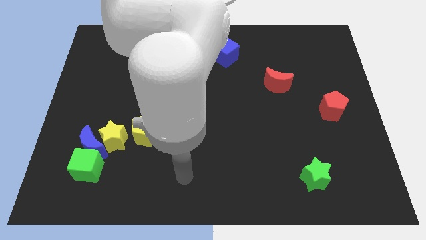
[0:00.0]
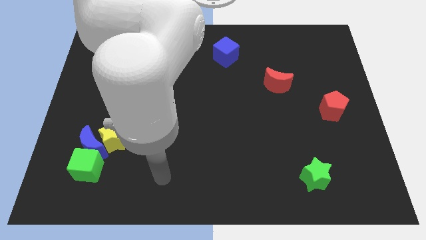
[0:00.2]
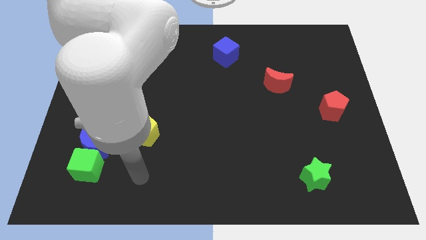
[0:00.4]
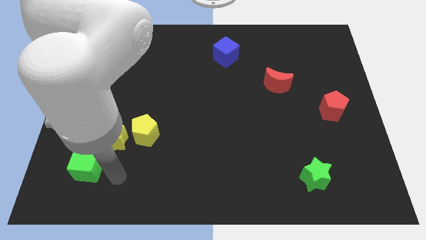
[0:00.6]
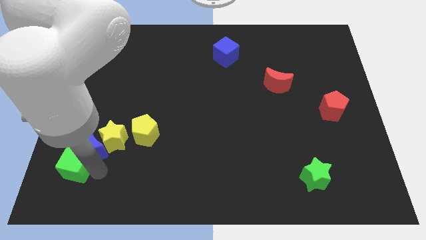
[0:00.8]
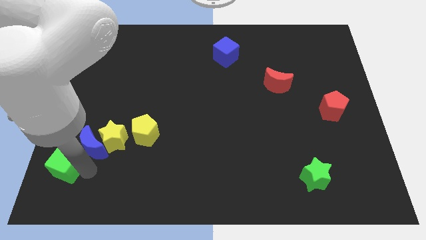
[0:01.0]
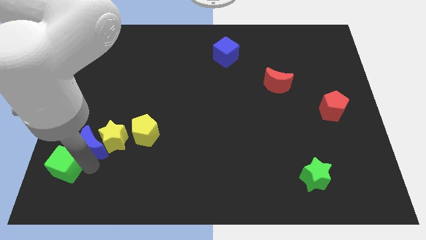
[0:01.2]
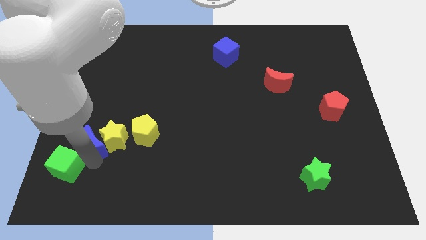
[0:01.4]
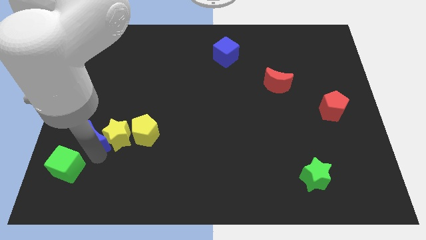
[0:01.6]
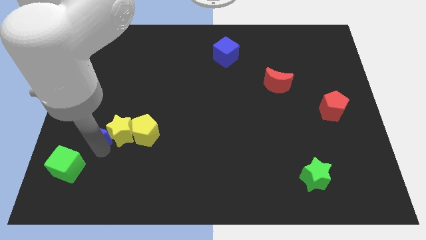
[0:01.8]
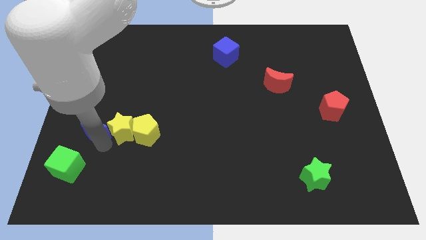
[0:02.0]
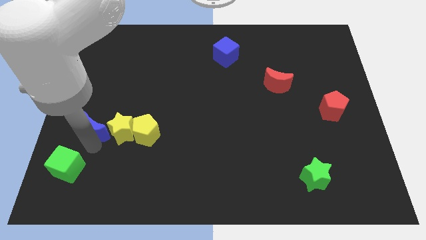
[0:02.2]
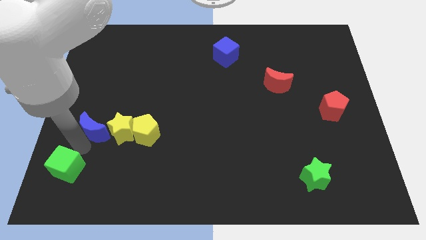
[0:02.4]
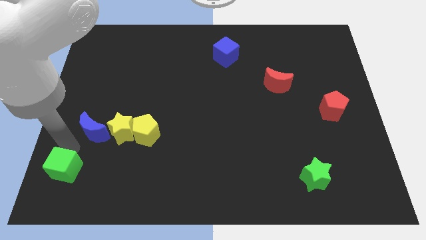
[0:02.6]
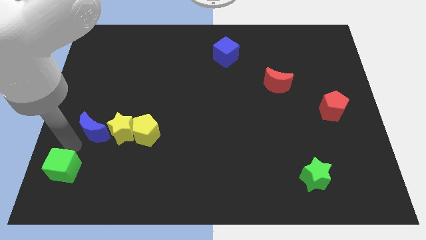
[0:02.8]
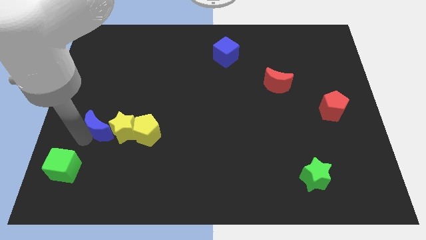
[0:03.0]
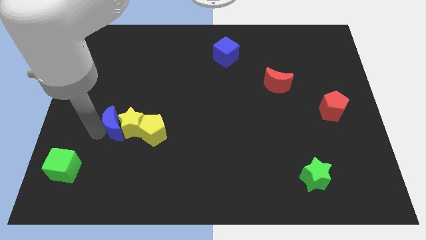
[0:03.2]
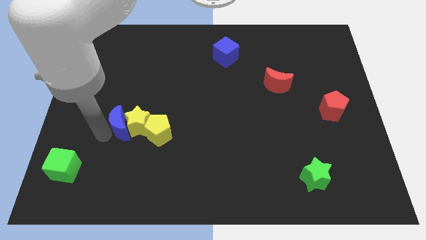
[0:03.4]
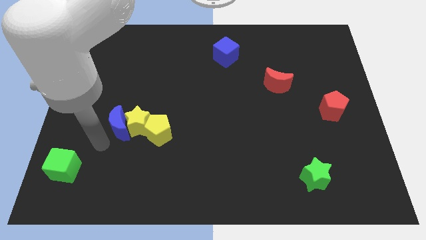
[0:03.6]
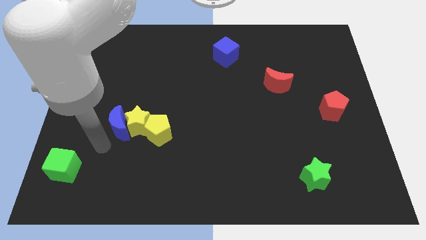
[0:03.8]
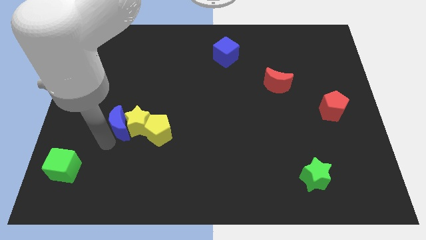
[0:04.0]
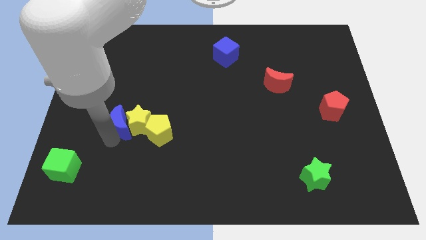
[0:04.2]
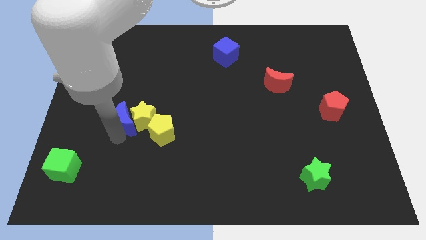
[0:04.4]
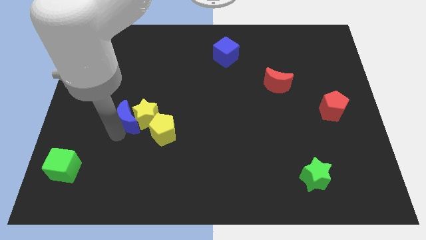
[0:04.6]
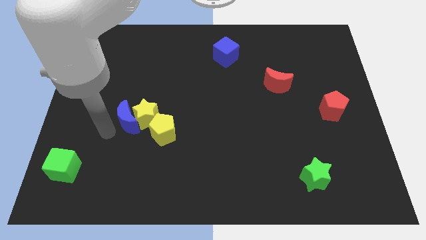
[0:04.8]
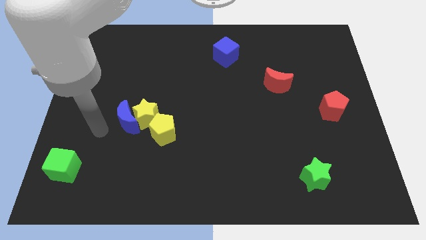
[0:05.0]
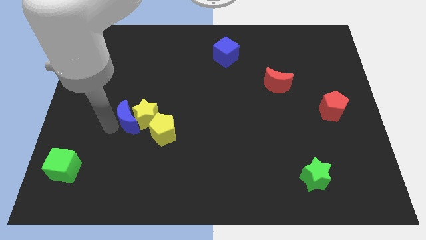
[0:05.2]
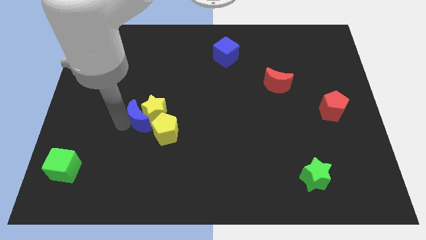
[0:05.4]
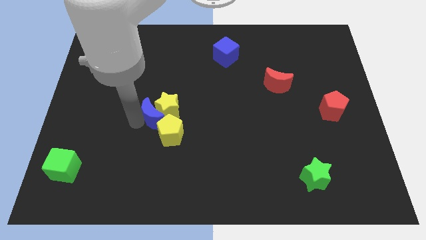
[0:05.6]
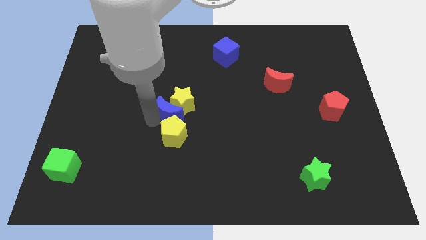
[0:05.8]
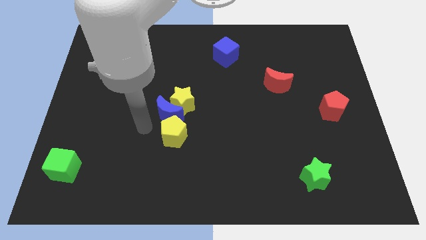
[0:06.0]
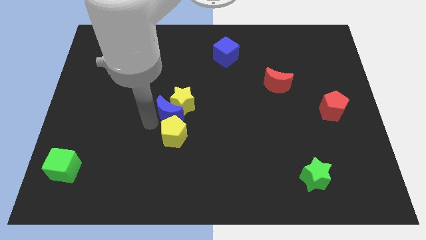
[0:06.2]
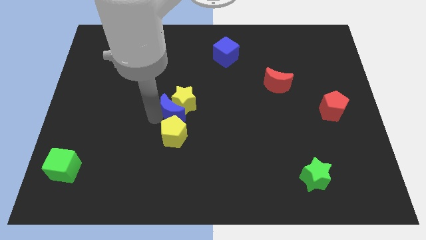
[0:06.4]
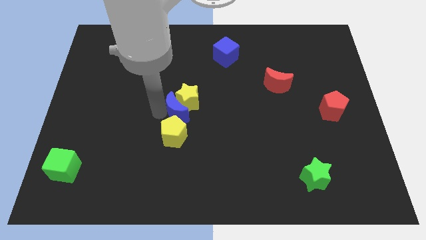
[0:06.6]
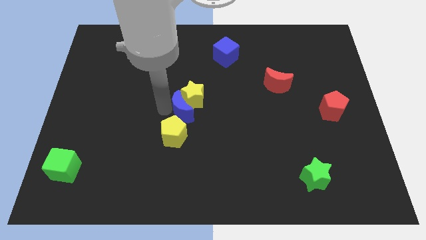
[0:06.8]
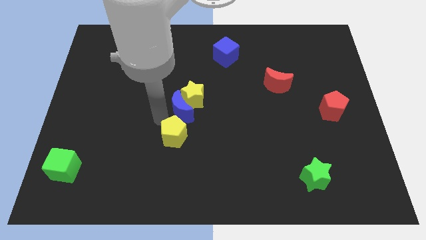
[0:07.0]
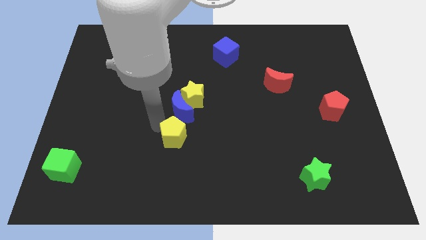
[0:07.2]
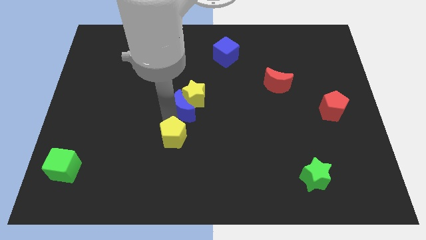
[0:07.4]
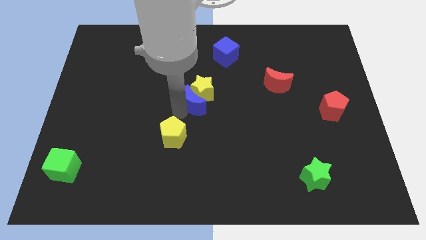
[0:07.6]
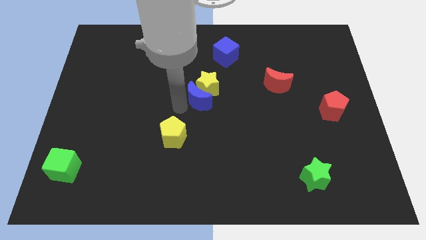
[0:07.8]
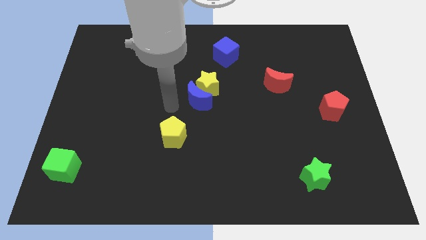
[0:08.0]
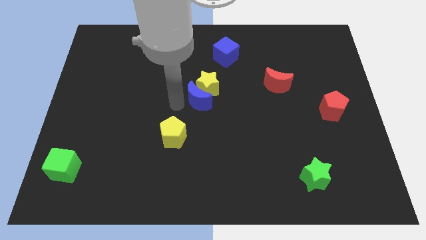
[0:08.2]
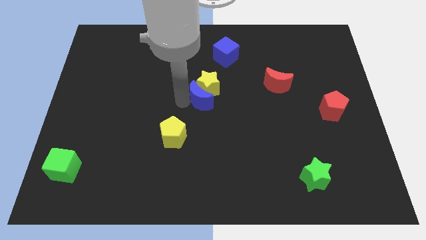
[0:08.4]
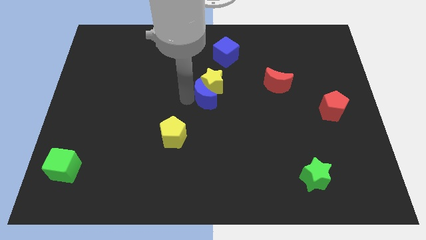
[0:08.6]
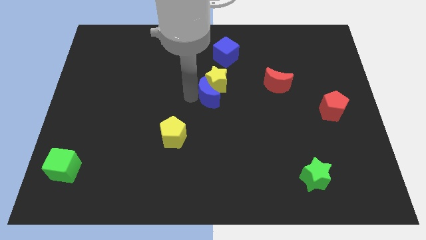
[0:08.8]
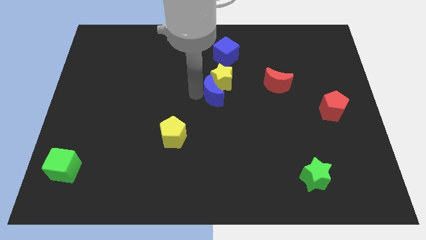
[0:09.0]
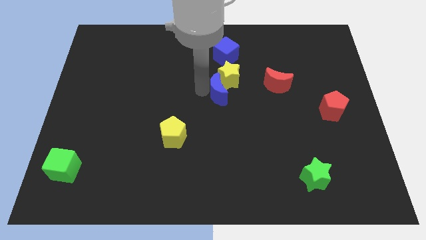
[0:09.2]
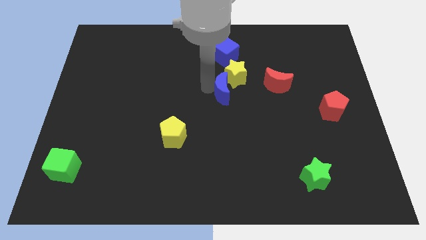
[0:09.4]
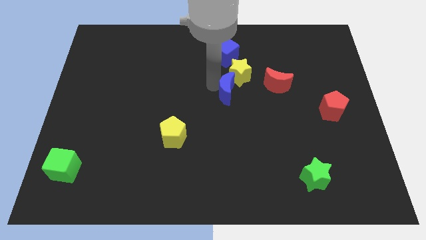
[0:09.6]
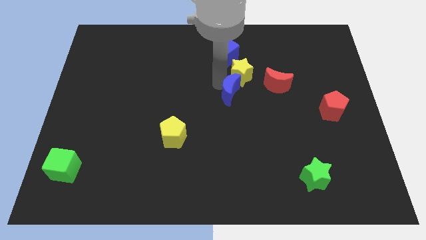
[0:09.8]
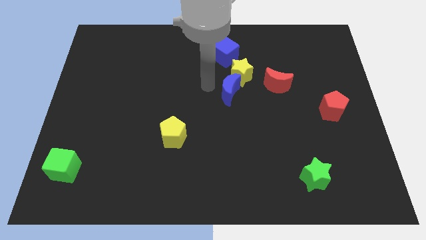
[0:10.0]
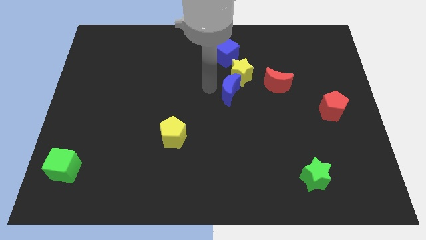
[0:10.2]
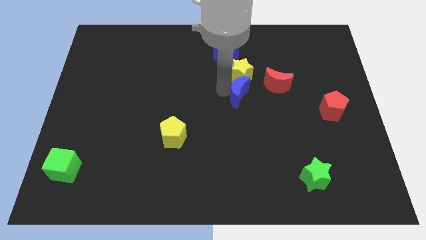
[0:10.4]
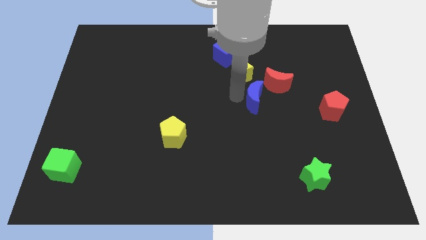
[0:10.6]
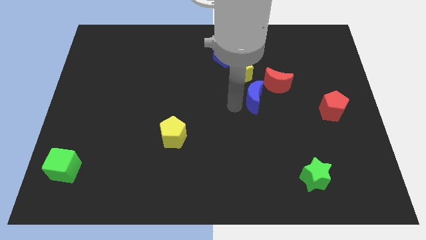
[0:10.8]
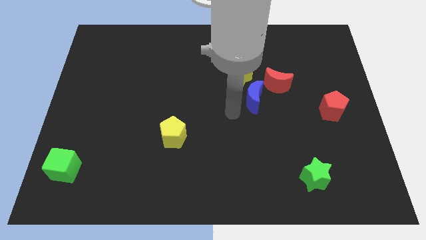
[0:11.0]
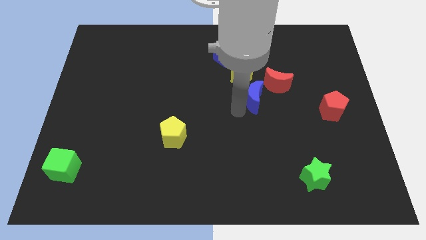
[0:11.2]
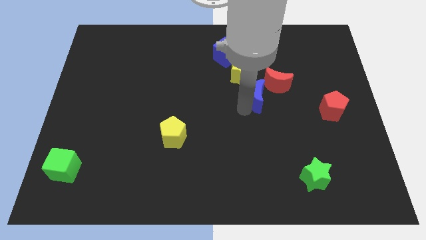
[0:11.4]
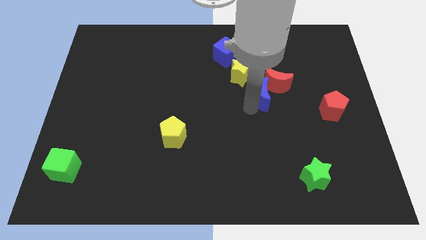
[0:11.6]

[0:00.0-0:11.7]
move the blue moon close to the red moon

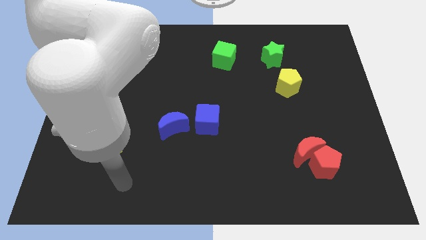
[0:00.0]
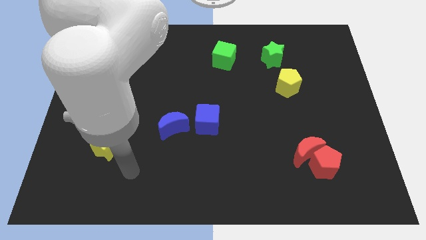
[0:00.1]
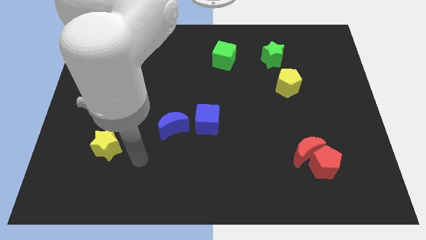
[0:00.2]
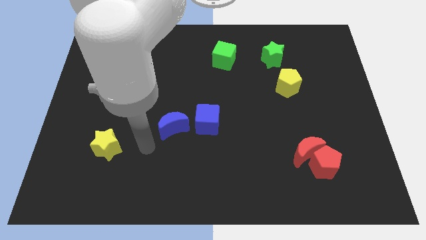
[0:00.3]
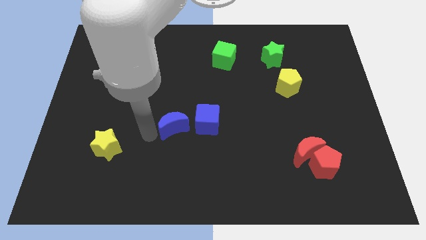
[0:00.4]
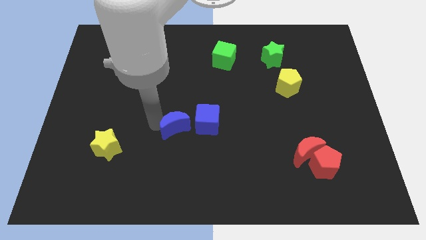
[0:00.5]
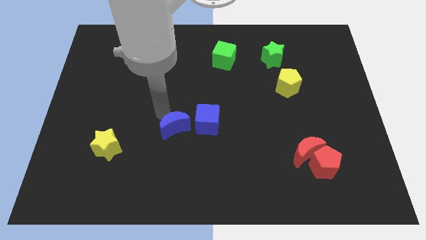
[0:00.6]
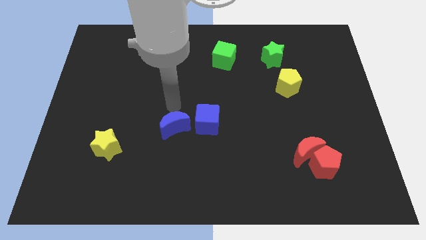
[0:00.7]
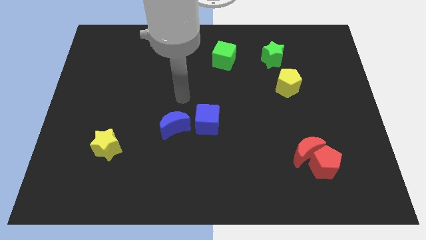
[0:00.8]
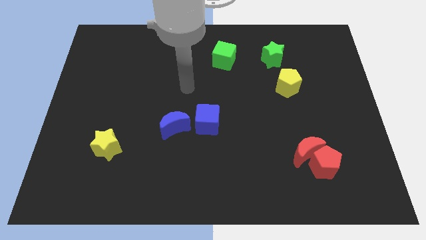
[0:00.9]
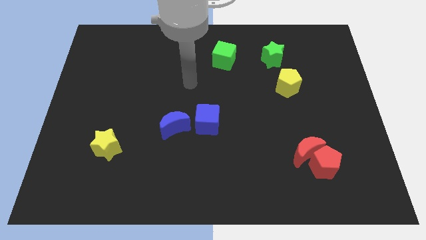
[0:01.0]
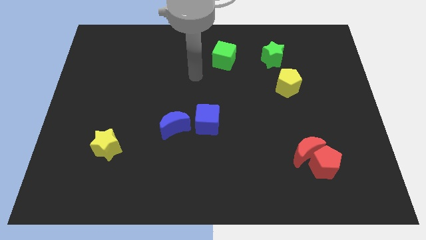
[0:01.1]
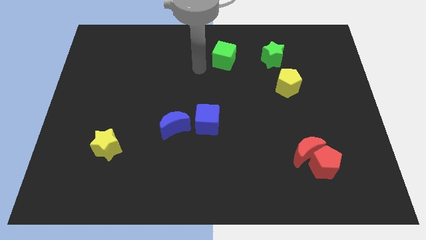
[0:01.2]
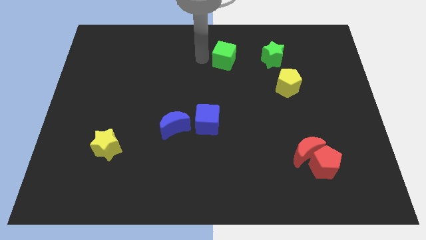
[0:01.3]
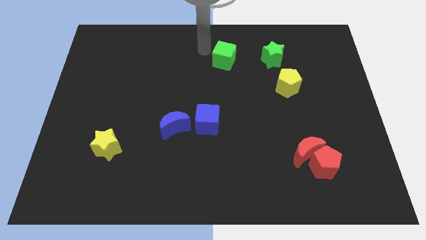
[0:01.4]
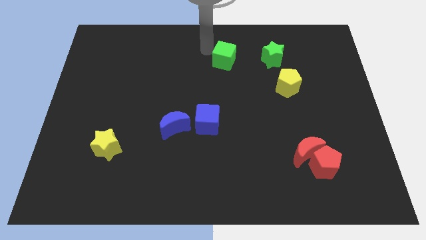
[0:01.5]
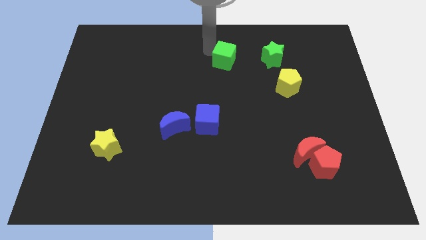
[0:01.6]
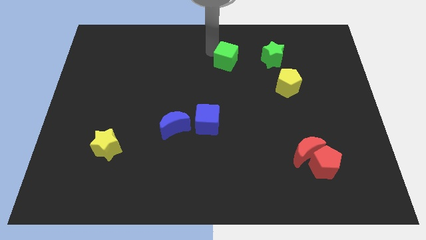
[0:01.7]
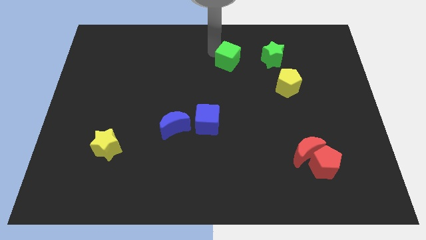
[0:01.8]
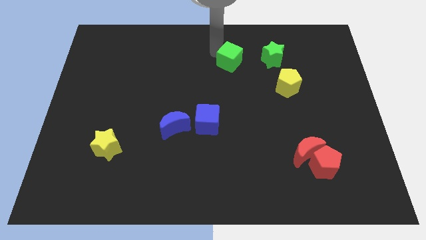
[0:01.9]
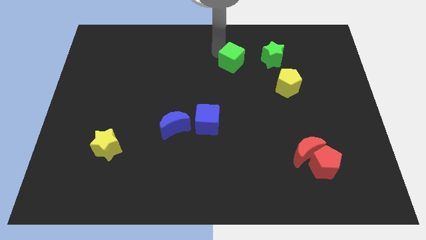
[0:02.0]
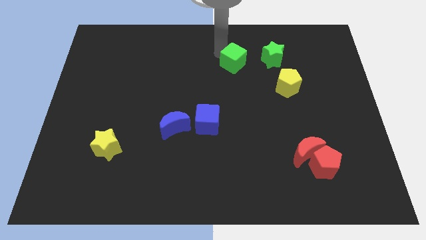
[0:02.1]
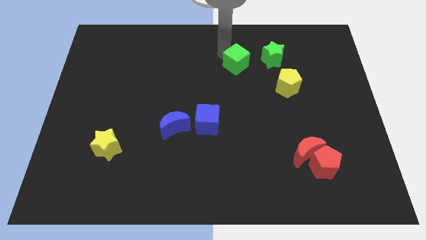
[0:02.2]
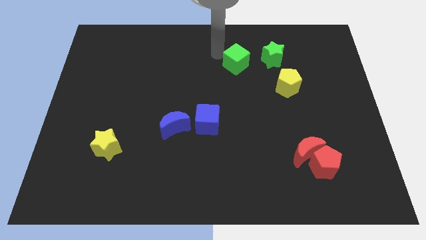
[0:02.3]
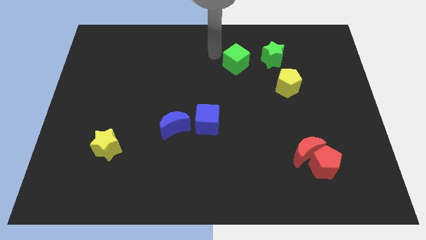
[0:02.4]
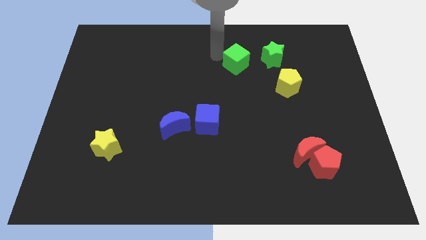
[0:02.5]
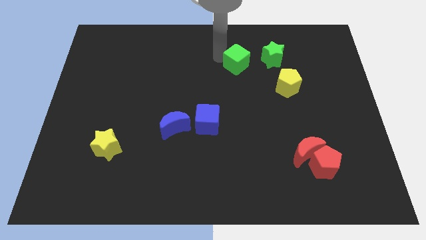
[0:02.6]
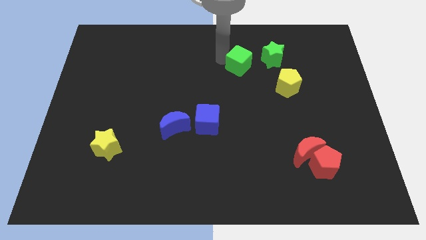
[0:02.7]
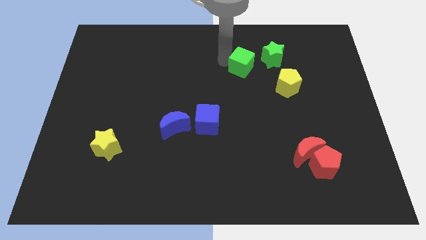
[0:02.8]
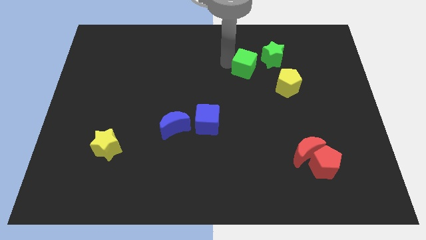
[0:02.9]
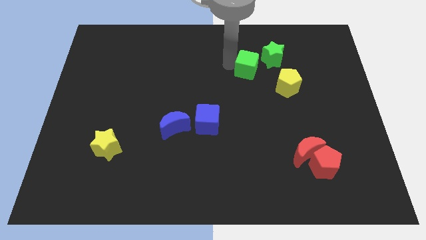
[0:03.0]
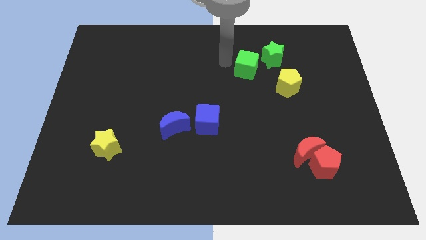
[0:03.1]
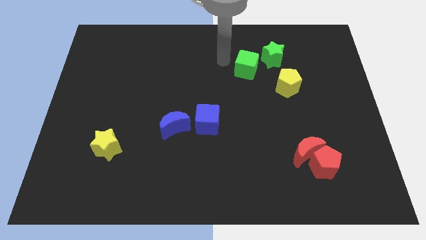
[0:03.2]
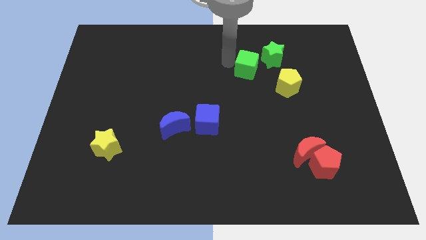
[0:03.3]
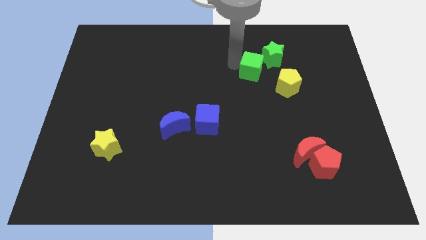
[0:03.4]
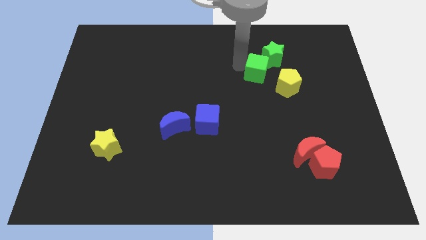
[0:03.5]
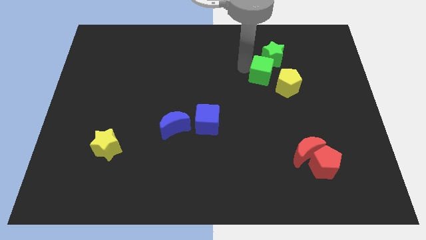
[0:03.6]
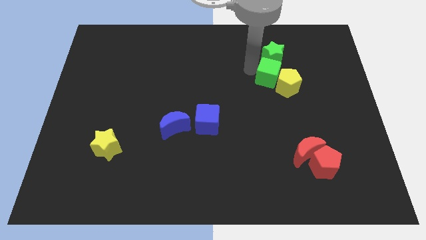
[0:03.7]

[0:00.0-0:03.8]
put the green cube next to the yellow pentagon
